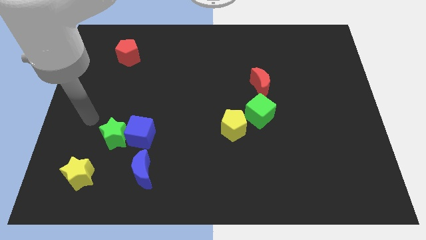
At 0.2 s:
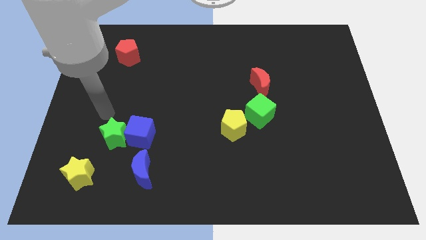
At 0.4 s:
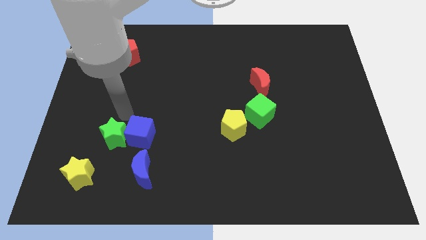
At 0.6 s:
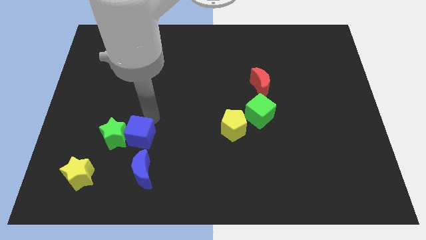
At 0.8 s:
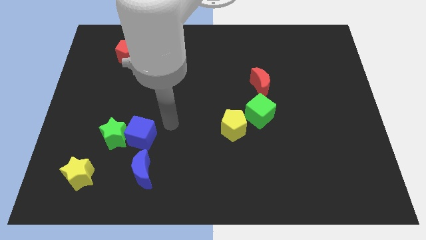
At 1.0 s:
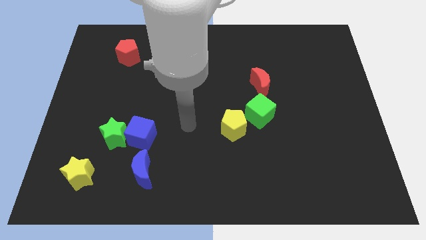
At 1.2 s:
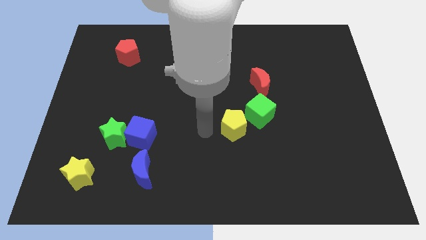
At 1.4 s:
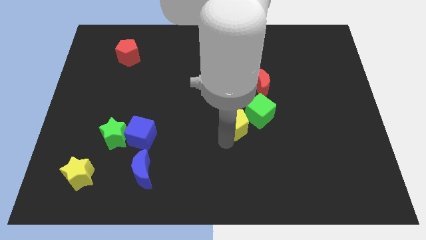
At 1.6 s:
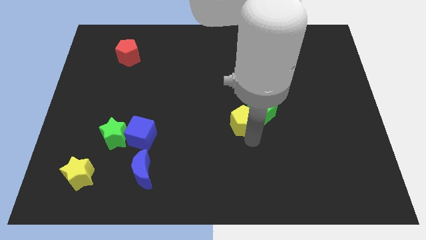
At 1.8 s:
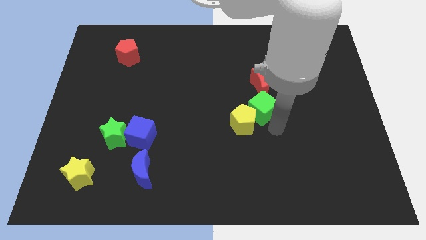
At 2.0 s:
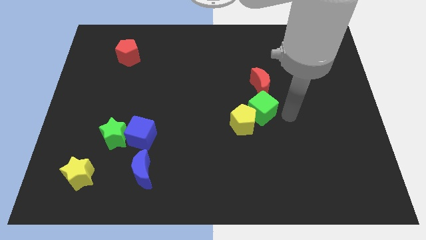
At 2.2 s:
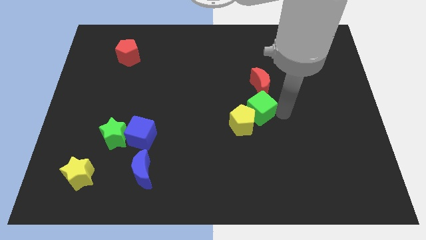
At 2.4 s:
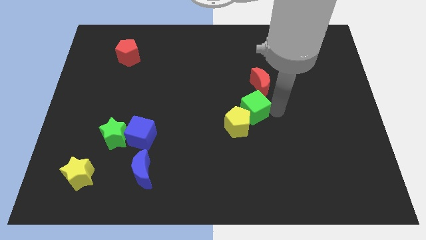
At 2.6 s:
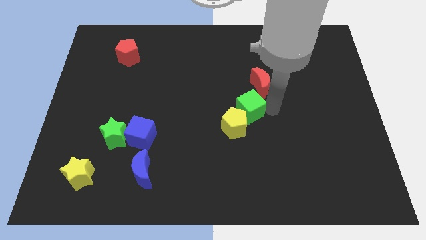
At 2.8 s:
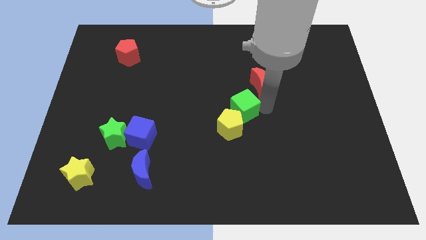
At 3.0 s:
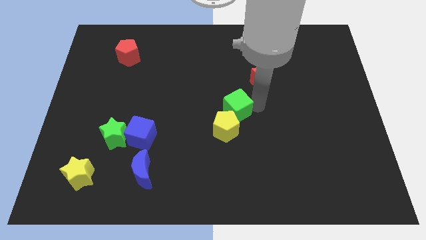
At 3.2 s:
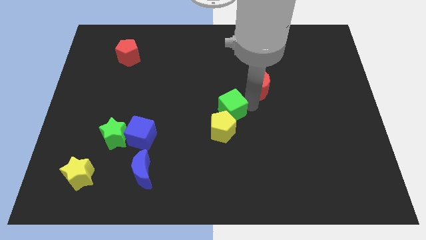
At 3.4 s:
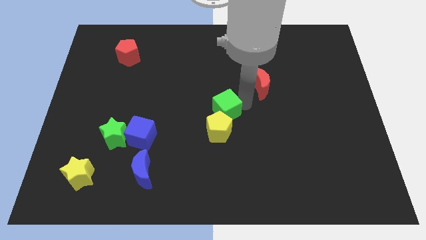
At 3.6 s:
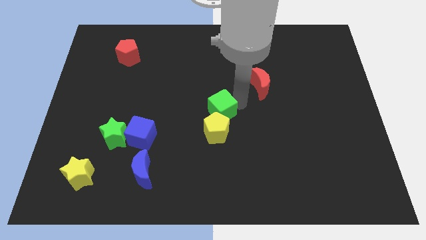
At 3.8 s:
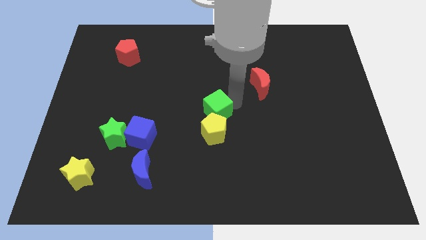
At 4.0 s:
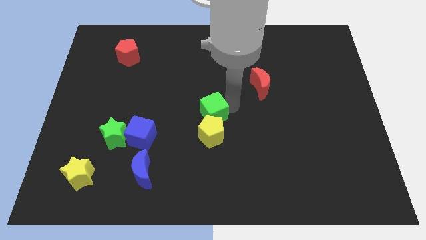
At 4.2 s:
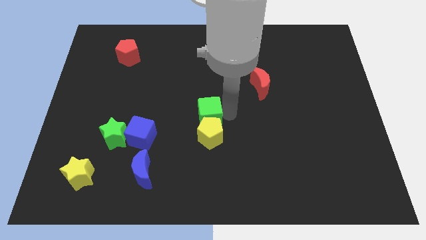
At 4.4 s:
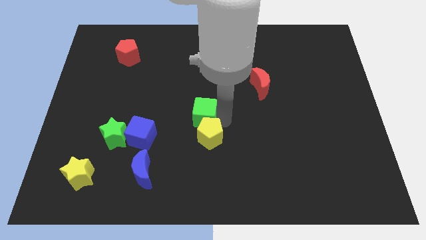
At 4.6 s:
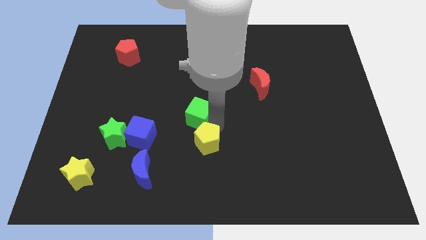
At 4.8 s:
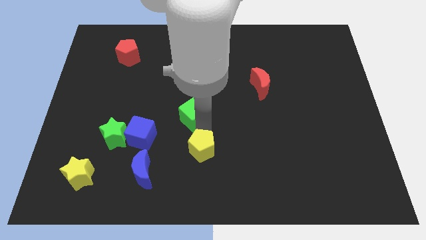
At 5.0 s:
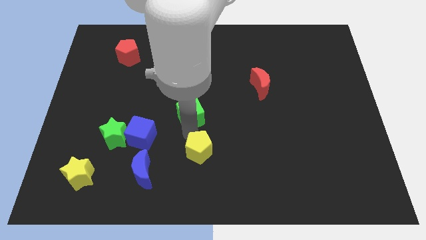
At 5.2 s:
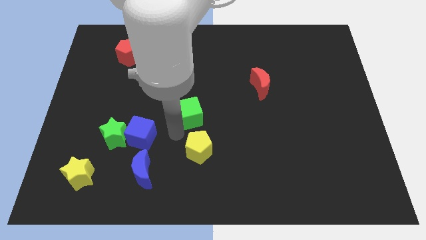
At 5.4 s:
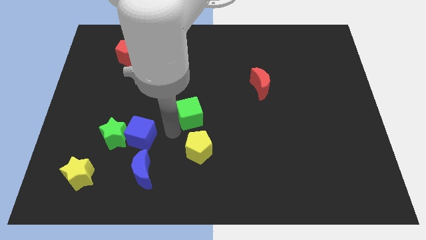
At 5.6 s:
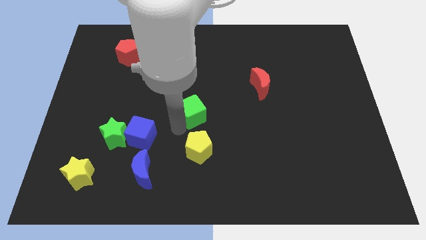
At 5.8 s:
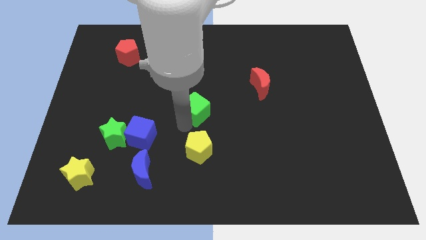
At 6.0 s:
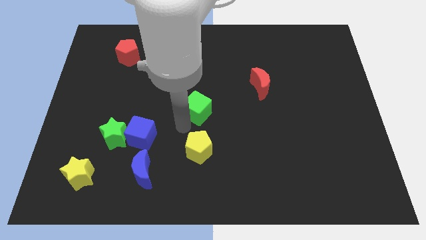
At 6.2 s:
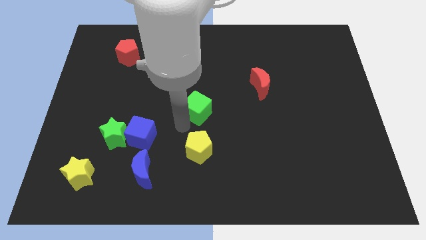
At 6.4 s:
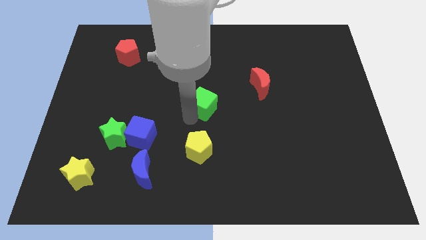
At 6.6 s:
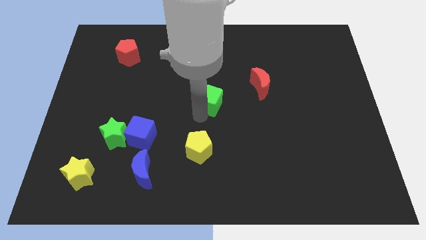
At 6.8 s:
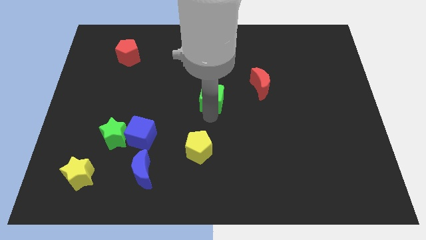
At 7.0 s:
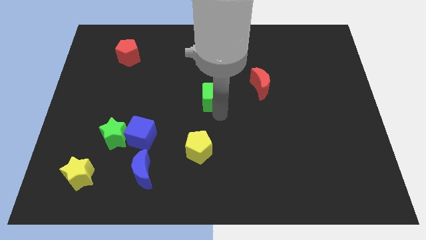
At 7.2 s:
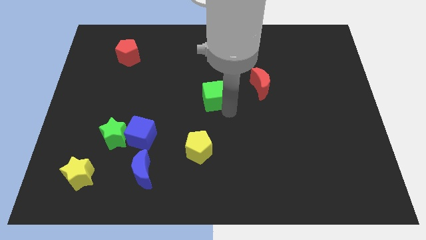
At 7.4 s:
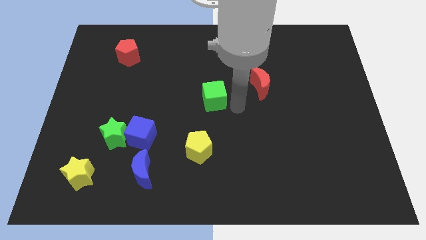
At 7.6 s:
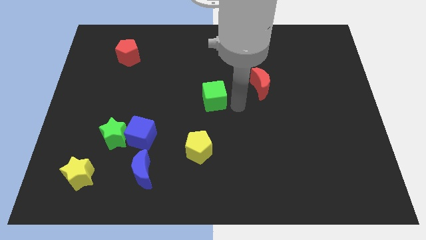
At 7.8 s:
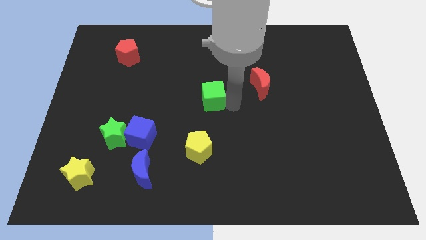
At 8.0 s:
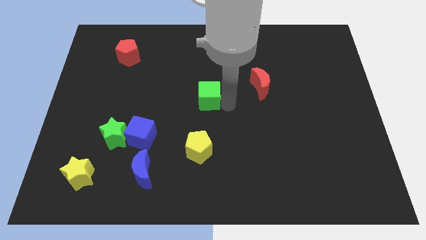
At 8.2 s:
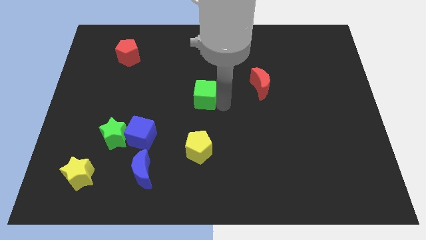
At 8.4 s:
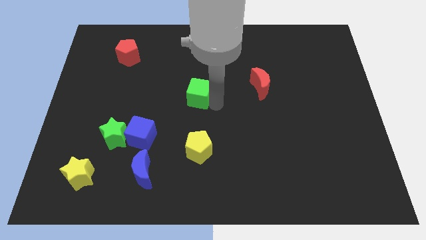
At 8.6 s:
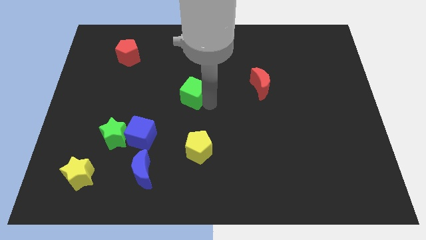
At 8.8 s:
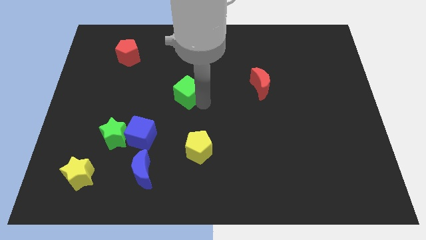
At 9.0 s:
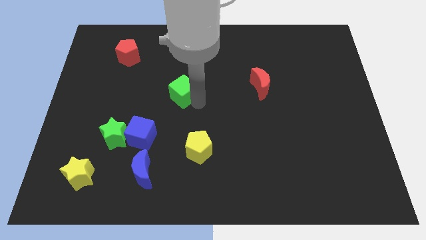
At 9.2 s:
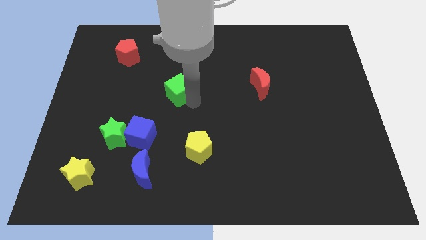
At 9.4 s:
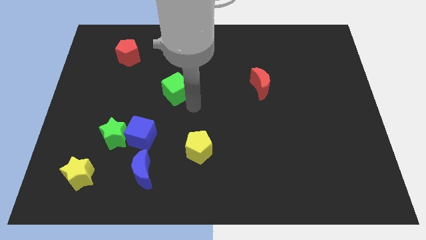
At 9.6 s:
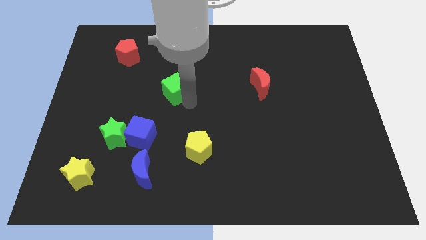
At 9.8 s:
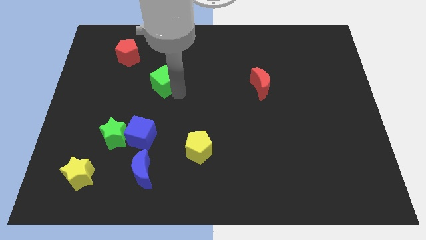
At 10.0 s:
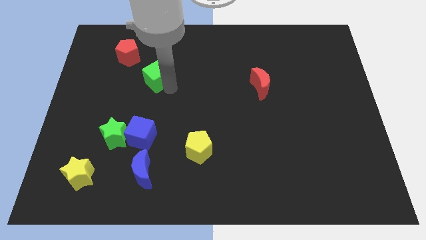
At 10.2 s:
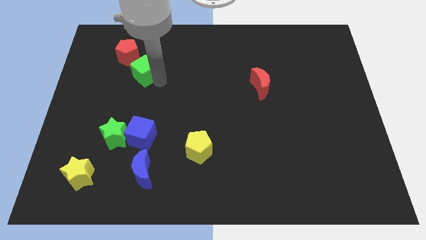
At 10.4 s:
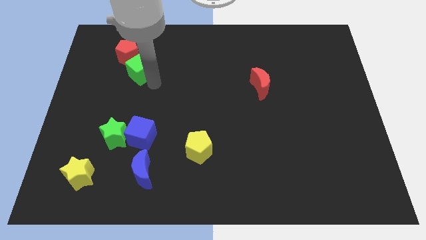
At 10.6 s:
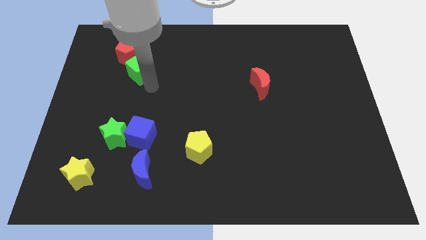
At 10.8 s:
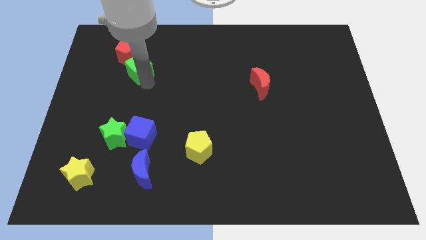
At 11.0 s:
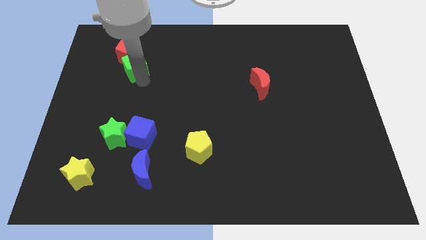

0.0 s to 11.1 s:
put the green cube towards the red pentagon

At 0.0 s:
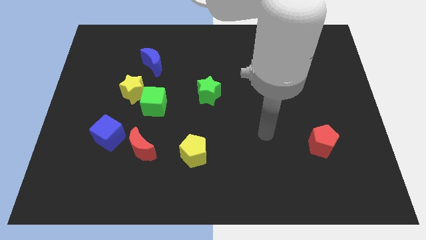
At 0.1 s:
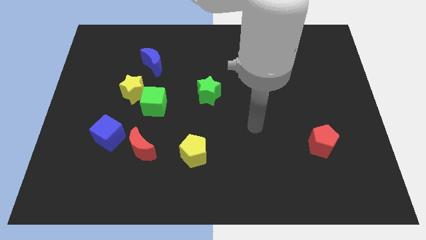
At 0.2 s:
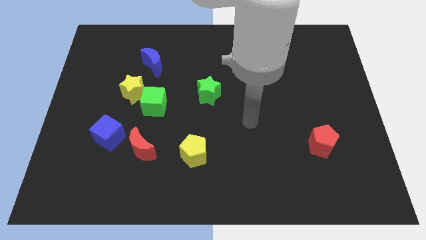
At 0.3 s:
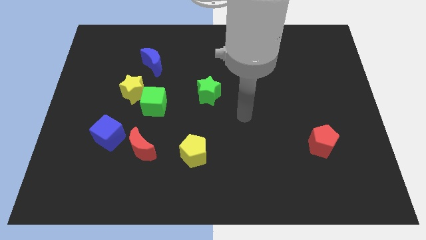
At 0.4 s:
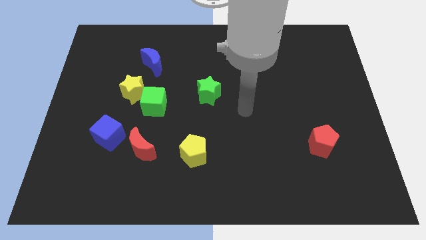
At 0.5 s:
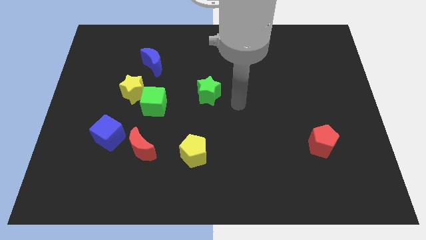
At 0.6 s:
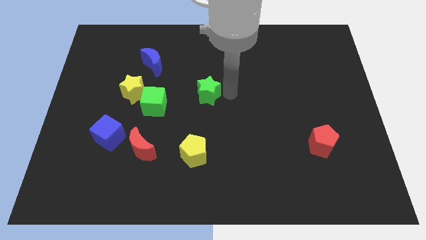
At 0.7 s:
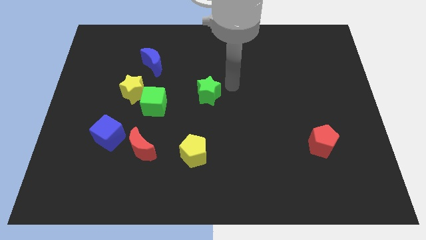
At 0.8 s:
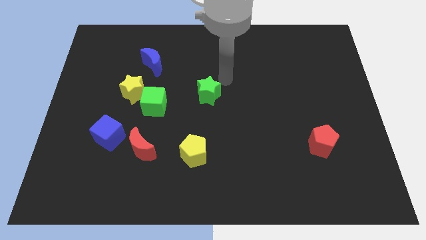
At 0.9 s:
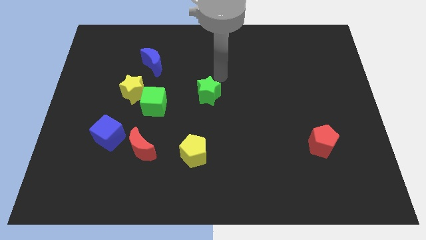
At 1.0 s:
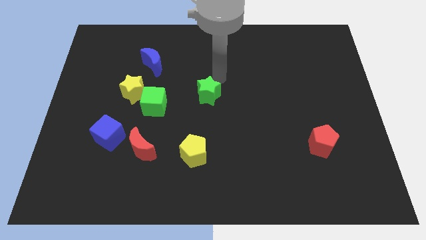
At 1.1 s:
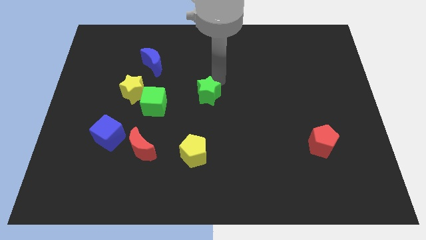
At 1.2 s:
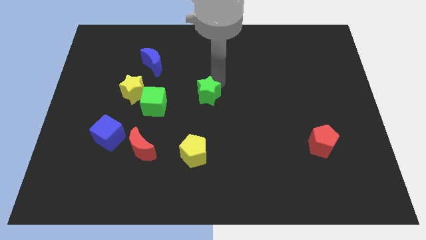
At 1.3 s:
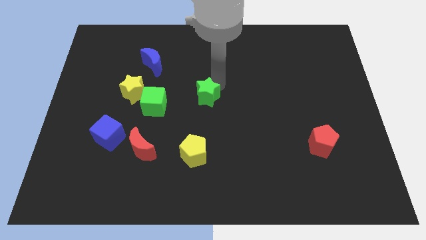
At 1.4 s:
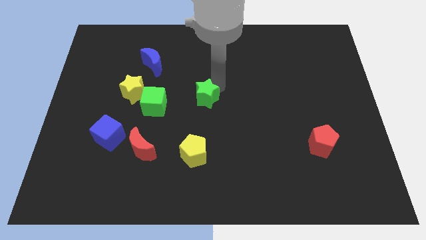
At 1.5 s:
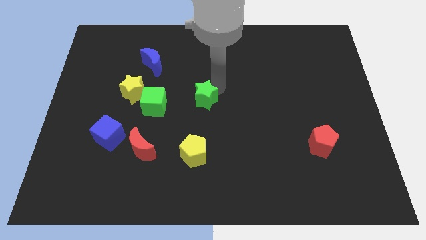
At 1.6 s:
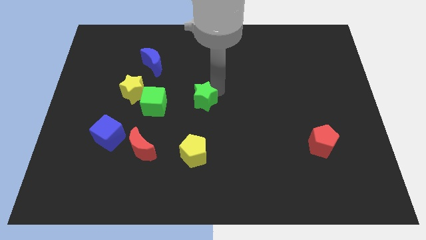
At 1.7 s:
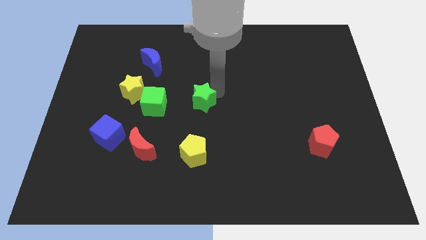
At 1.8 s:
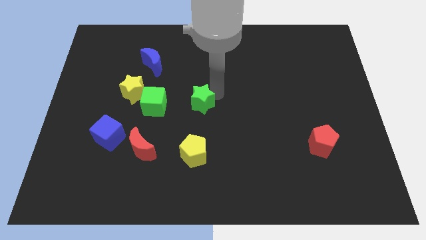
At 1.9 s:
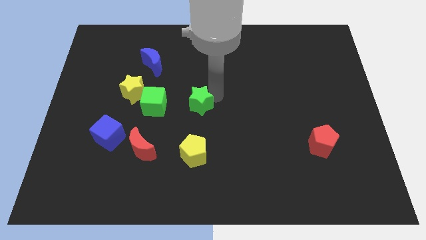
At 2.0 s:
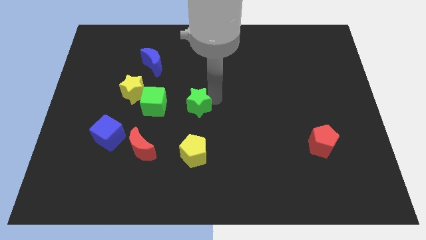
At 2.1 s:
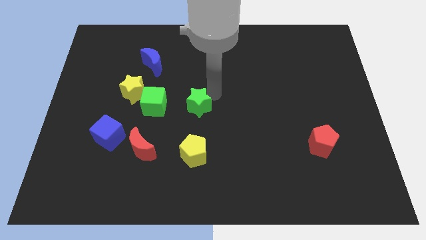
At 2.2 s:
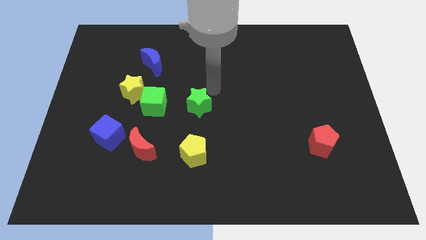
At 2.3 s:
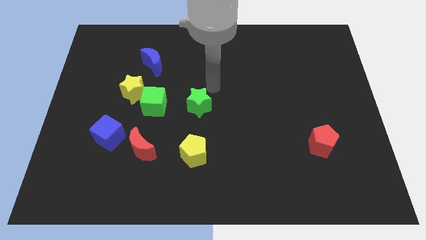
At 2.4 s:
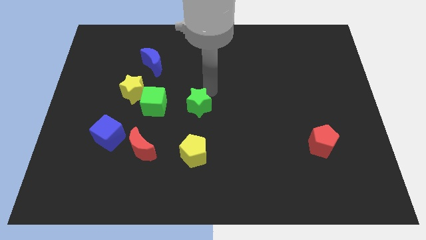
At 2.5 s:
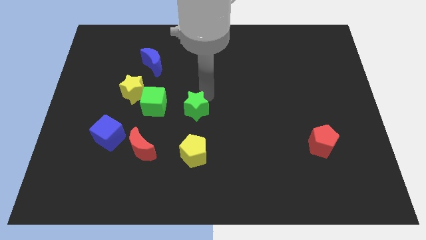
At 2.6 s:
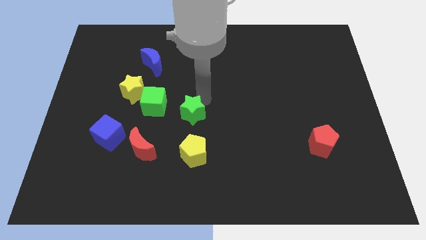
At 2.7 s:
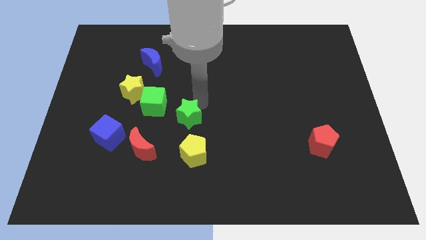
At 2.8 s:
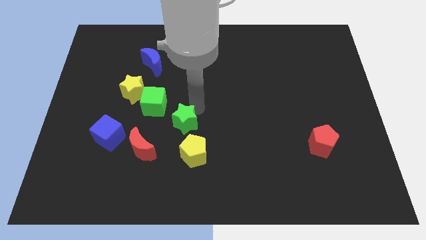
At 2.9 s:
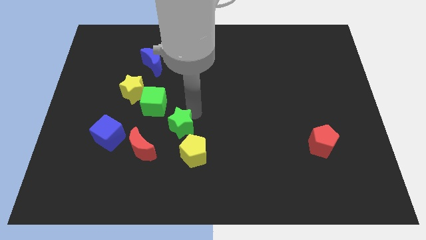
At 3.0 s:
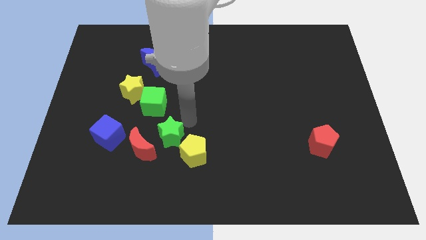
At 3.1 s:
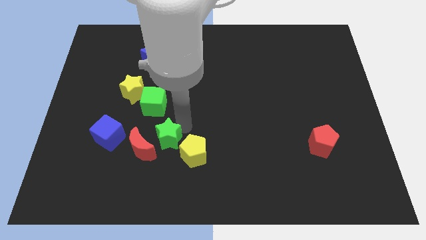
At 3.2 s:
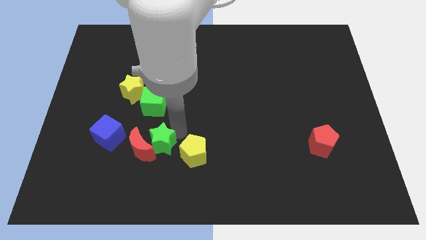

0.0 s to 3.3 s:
put the green star towards the red moon
